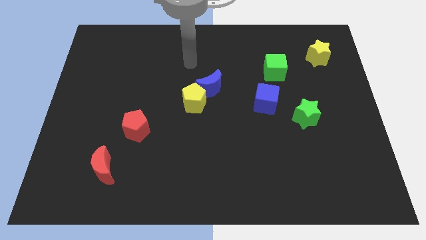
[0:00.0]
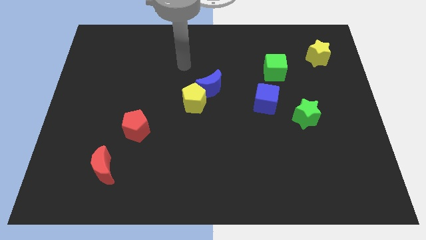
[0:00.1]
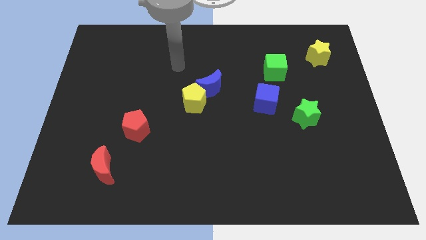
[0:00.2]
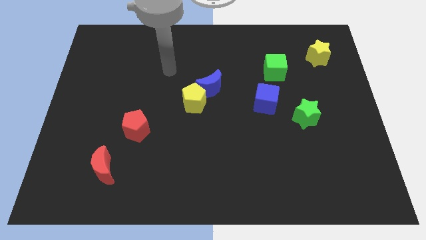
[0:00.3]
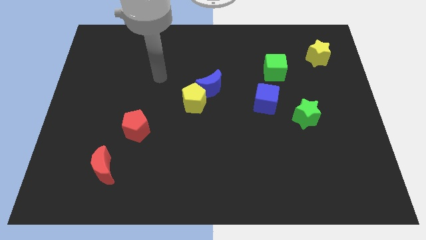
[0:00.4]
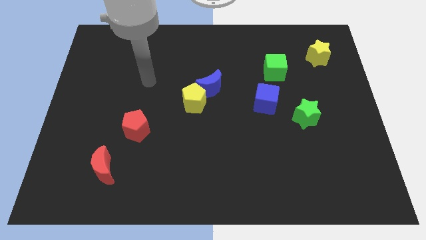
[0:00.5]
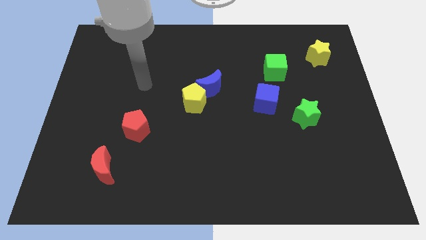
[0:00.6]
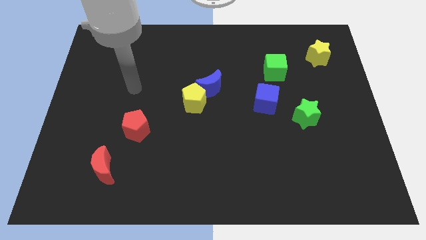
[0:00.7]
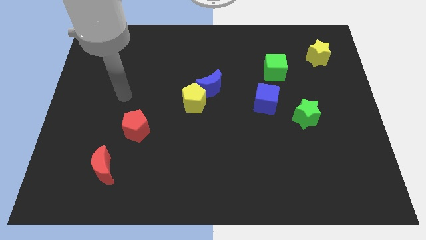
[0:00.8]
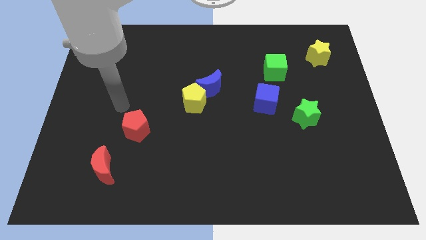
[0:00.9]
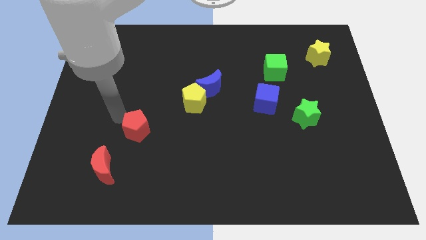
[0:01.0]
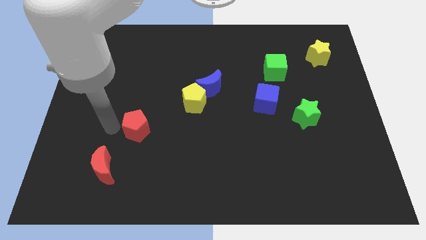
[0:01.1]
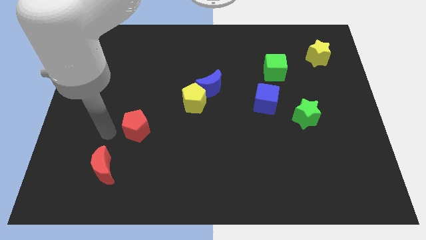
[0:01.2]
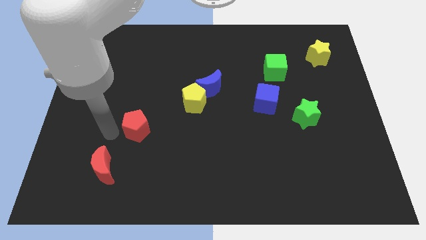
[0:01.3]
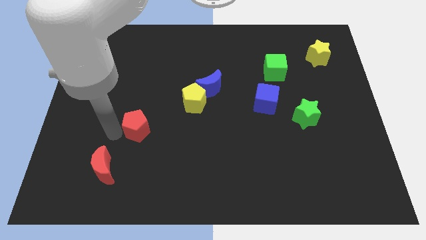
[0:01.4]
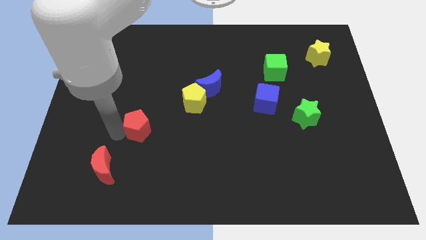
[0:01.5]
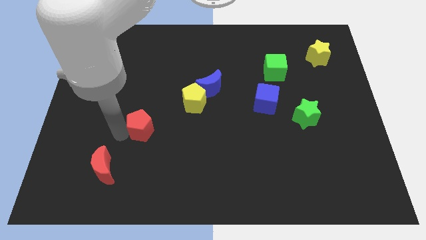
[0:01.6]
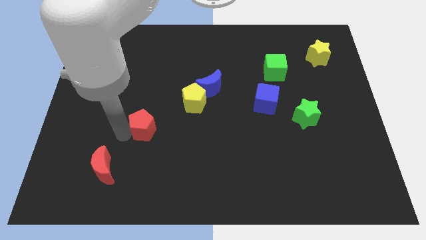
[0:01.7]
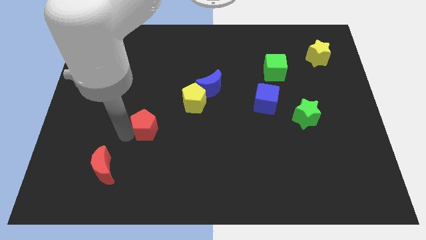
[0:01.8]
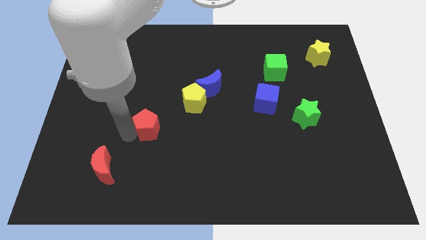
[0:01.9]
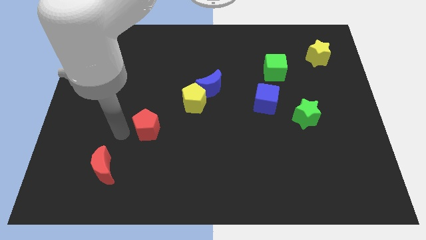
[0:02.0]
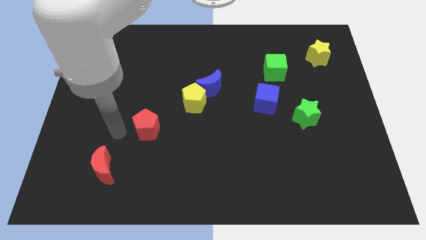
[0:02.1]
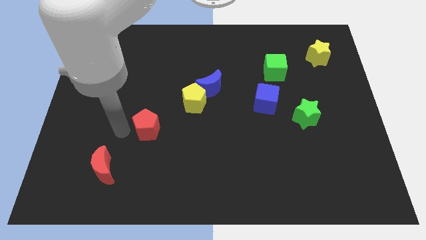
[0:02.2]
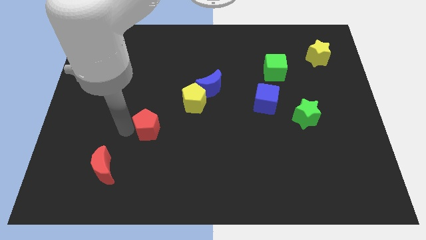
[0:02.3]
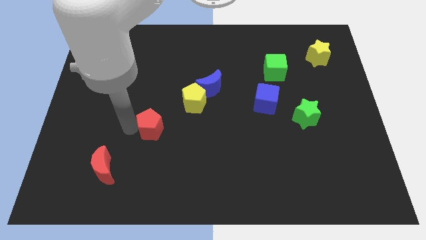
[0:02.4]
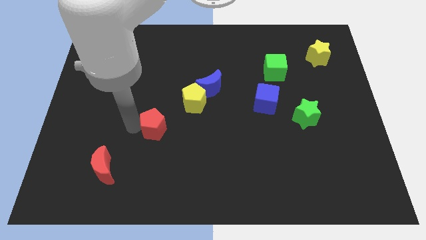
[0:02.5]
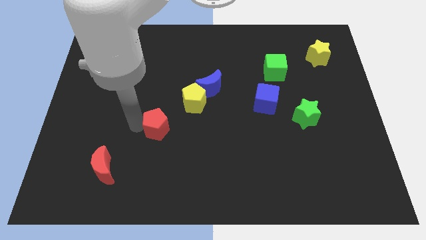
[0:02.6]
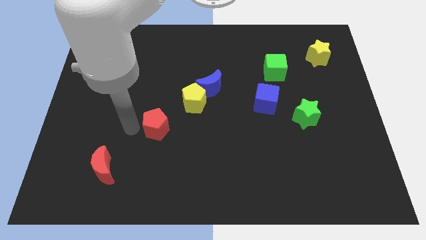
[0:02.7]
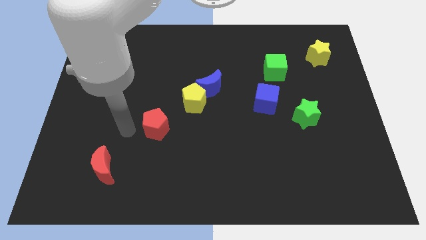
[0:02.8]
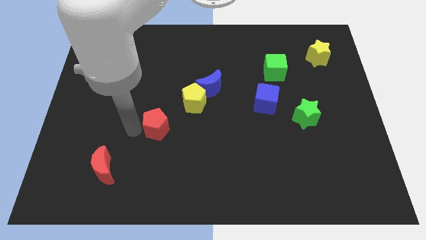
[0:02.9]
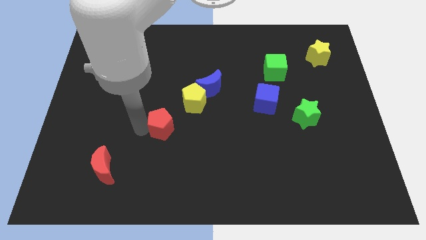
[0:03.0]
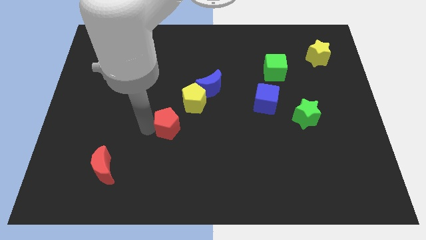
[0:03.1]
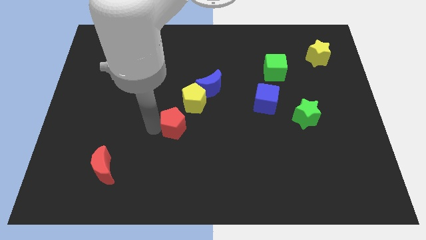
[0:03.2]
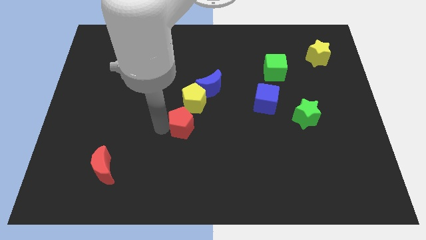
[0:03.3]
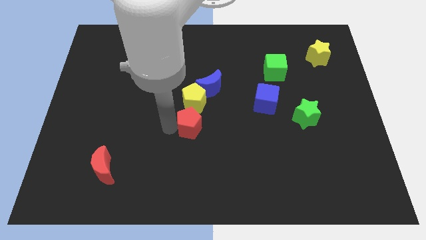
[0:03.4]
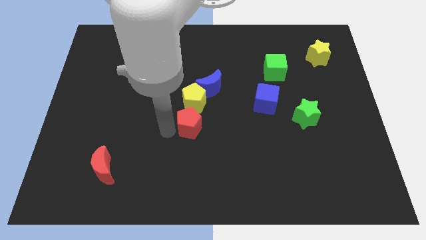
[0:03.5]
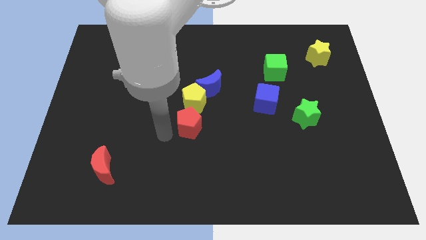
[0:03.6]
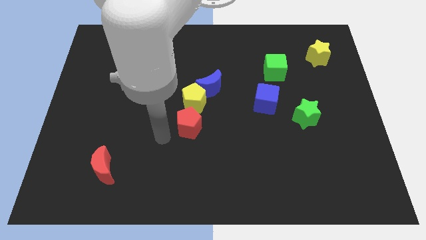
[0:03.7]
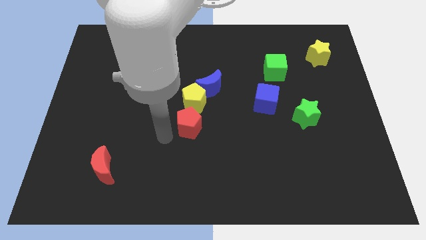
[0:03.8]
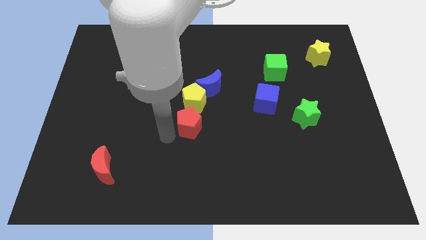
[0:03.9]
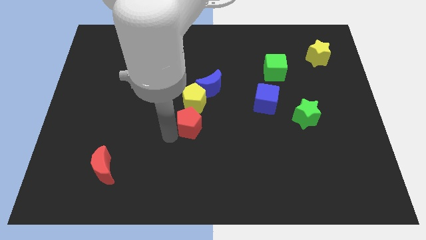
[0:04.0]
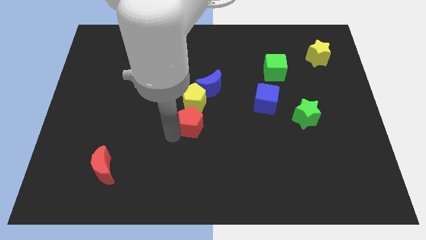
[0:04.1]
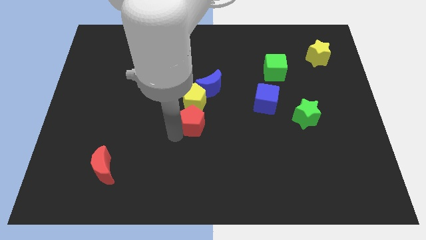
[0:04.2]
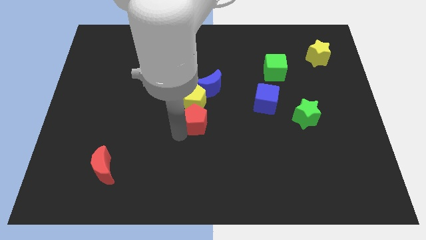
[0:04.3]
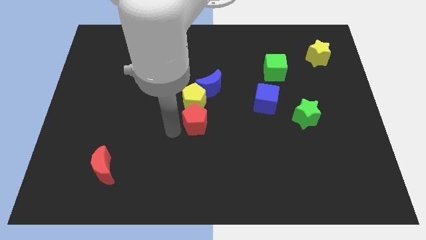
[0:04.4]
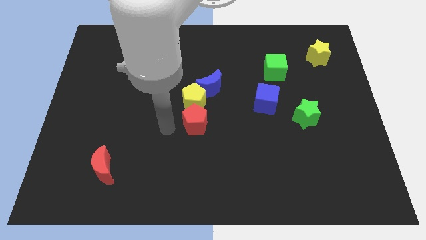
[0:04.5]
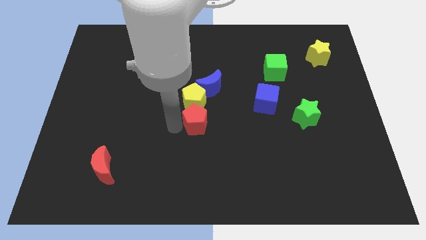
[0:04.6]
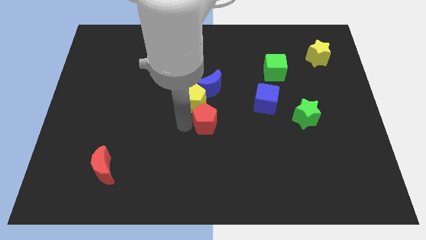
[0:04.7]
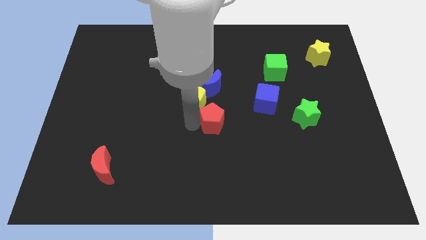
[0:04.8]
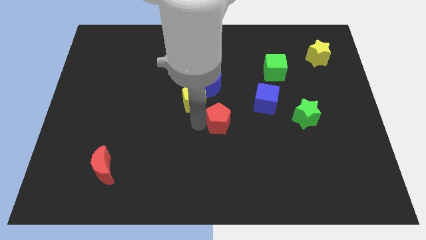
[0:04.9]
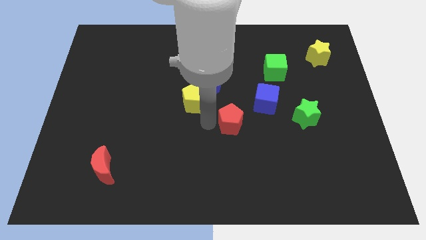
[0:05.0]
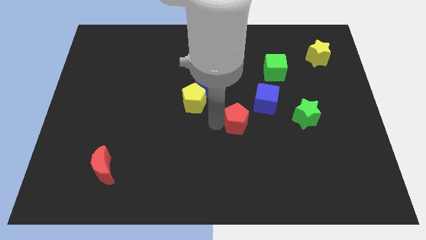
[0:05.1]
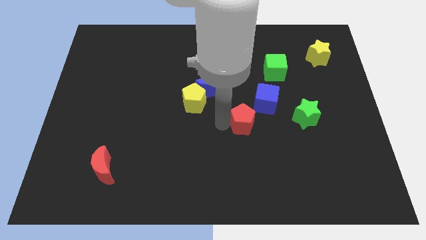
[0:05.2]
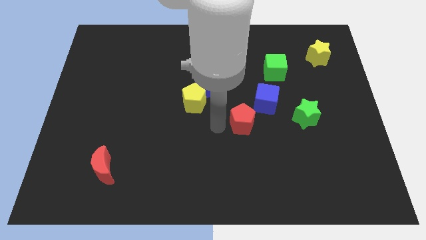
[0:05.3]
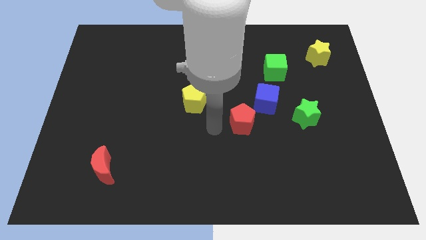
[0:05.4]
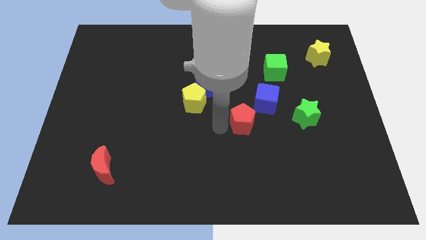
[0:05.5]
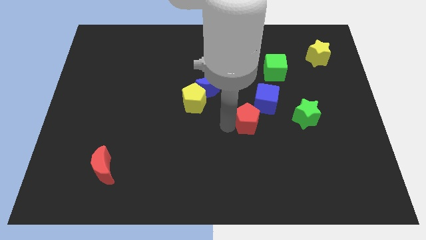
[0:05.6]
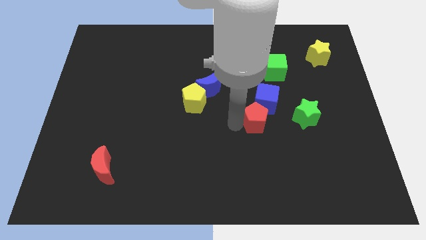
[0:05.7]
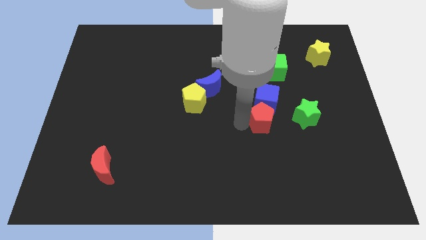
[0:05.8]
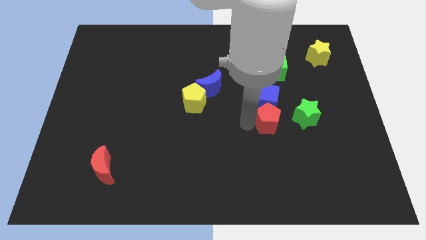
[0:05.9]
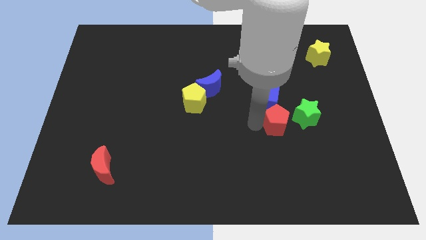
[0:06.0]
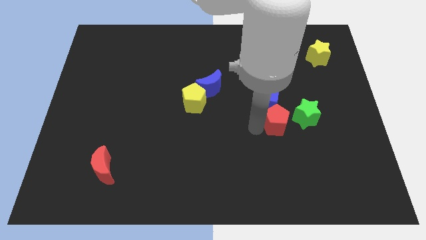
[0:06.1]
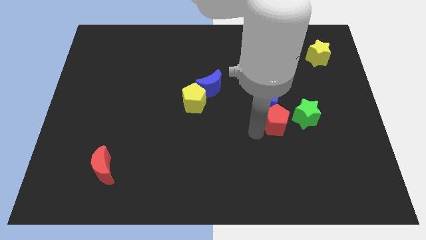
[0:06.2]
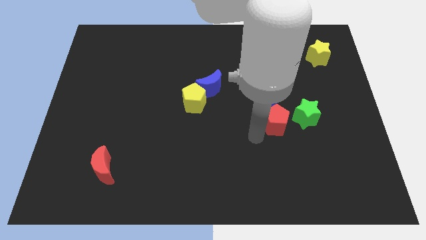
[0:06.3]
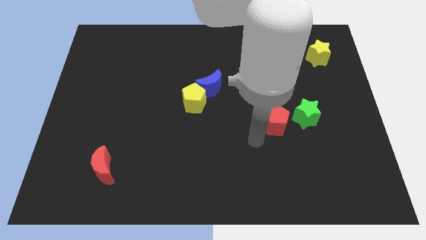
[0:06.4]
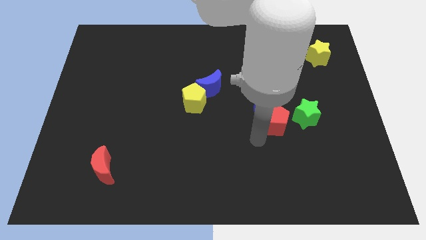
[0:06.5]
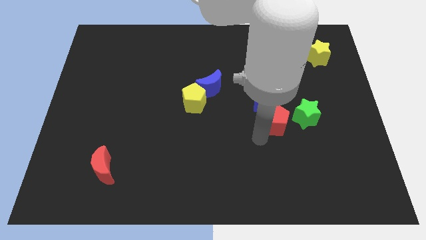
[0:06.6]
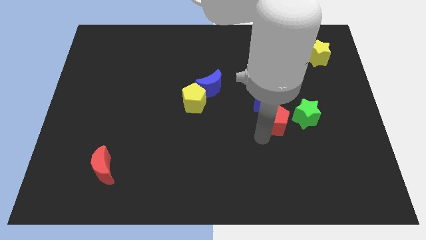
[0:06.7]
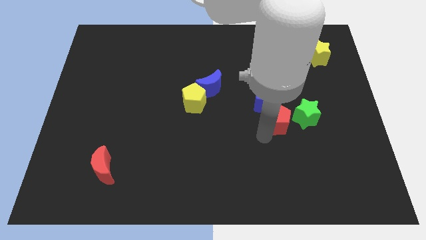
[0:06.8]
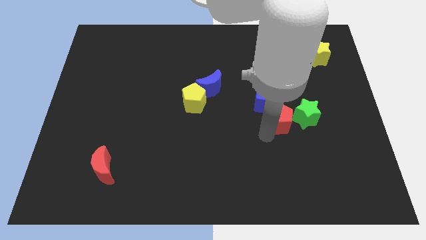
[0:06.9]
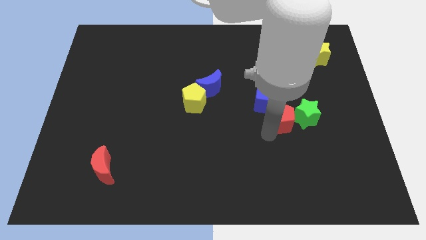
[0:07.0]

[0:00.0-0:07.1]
push the red pentagon to the green star
